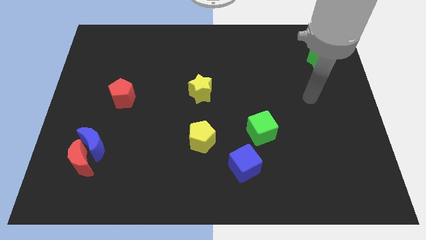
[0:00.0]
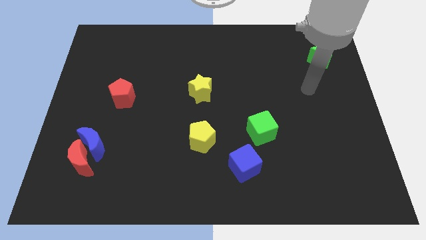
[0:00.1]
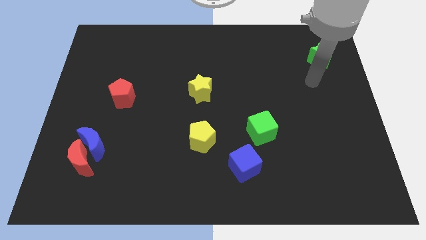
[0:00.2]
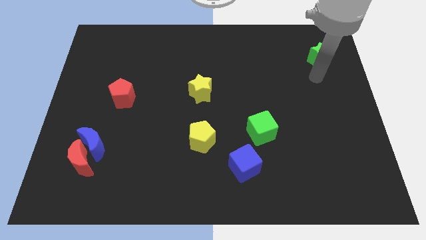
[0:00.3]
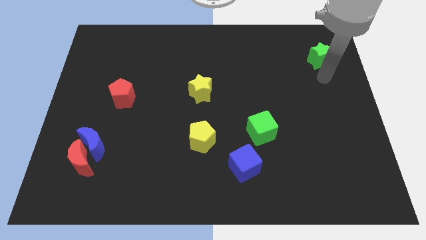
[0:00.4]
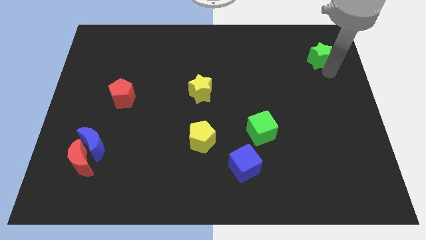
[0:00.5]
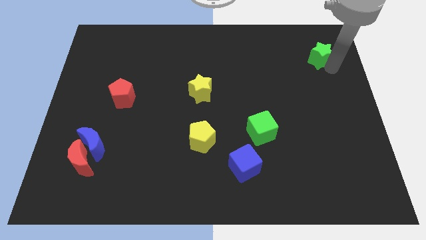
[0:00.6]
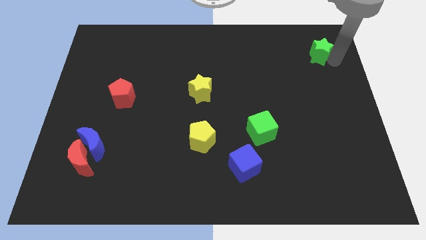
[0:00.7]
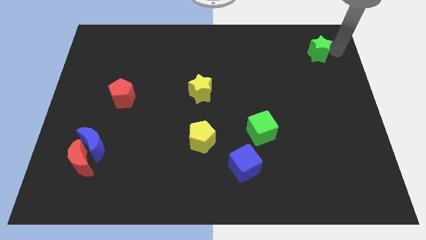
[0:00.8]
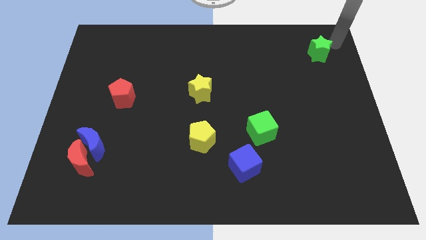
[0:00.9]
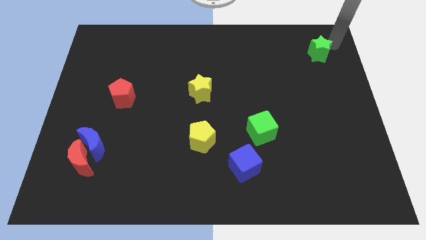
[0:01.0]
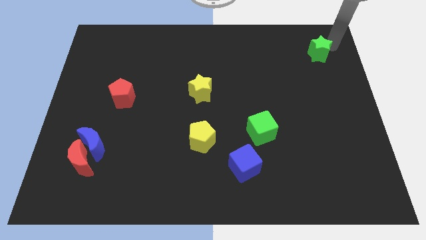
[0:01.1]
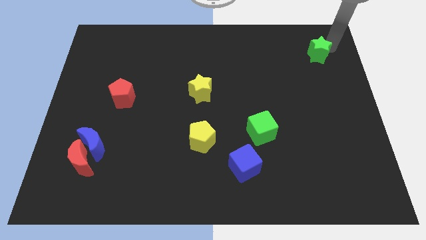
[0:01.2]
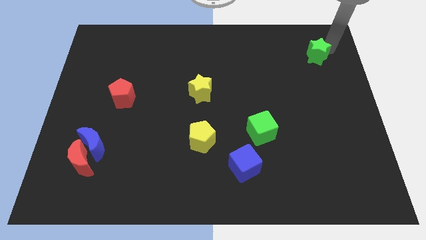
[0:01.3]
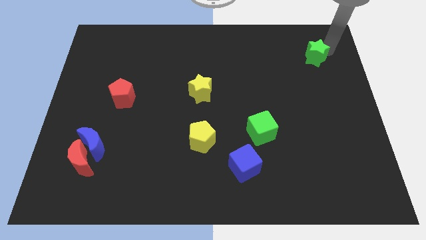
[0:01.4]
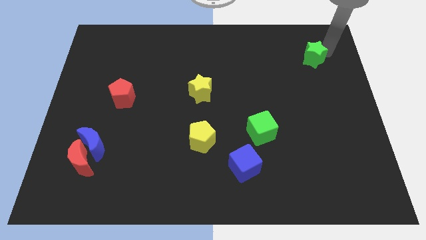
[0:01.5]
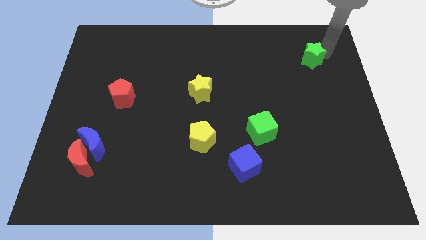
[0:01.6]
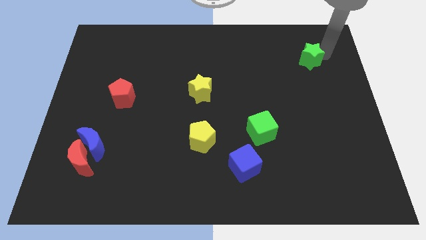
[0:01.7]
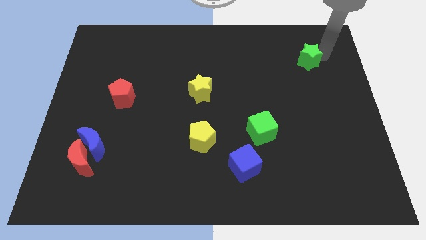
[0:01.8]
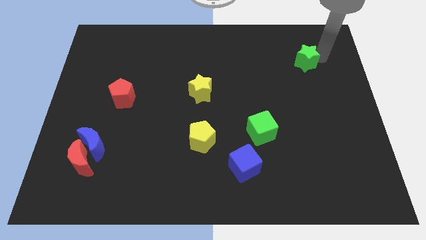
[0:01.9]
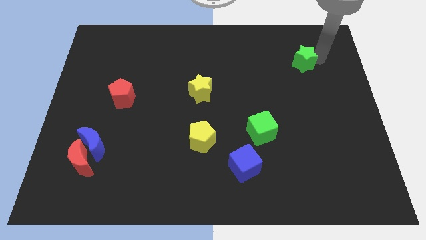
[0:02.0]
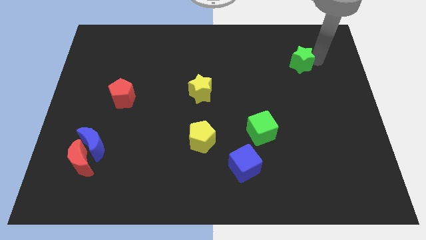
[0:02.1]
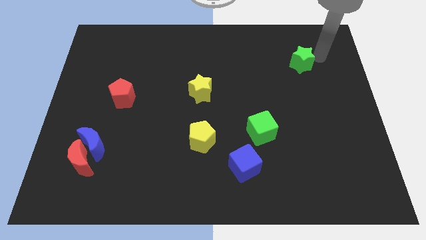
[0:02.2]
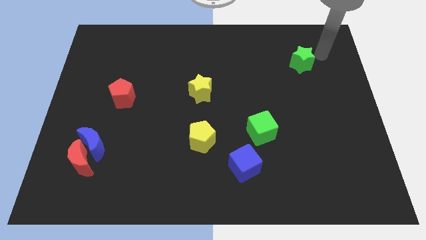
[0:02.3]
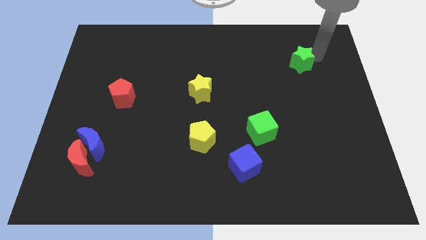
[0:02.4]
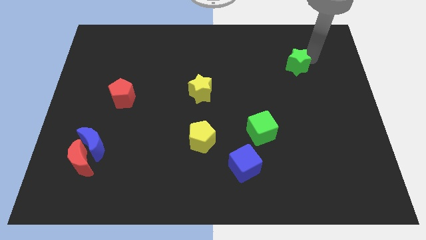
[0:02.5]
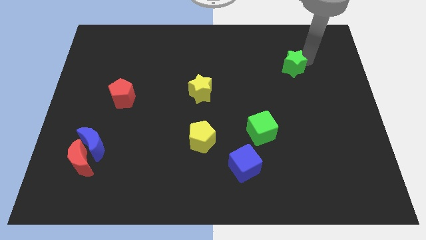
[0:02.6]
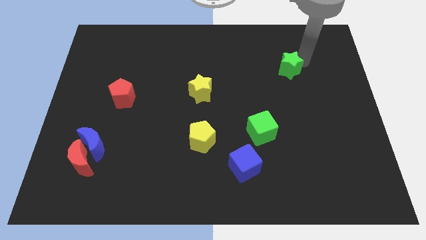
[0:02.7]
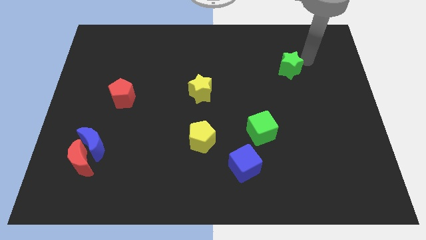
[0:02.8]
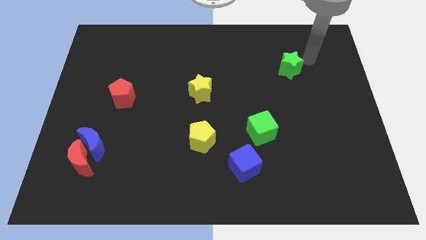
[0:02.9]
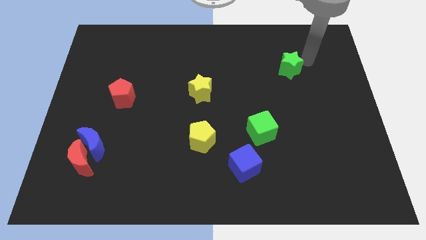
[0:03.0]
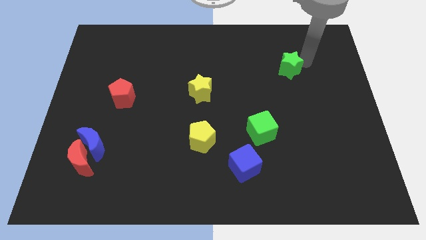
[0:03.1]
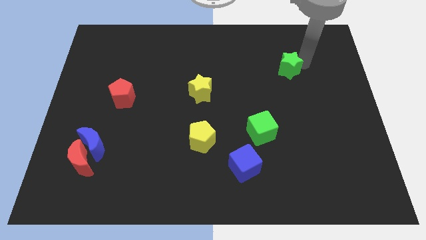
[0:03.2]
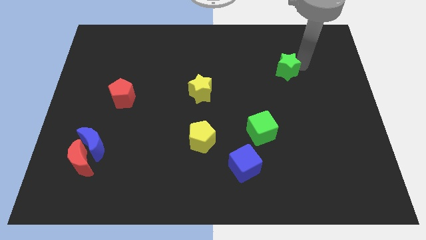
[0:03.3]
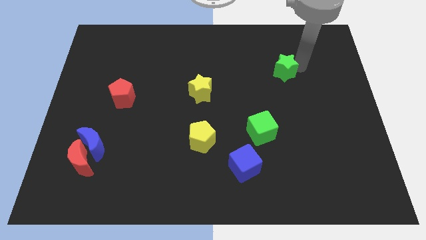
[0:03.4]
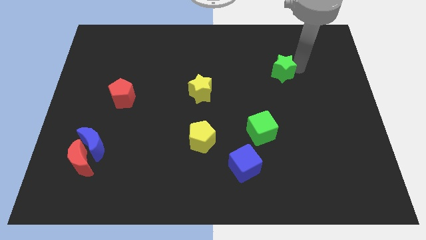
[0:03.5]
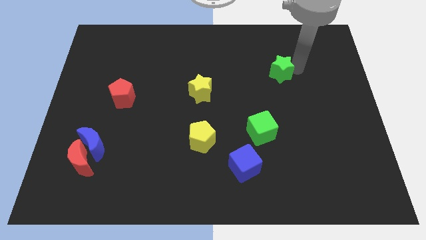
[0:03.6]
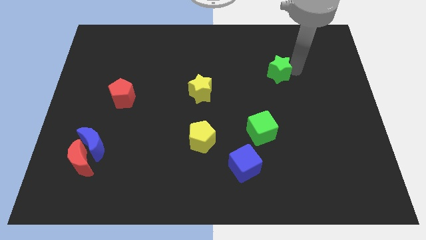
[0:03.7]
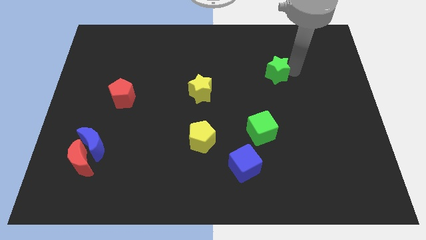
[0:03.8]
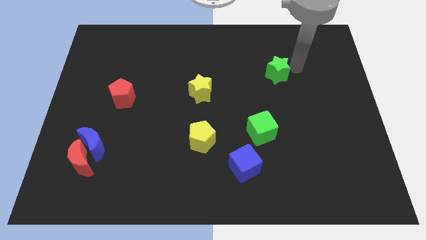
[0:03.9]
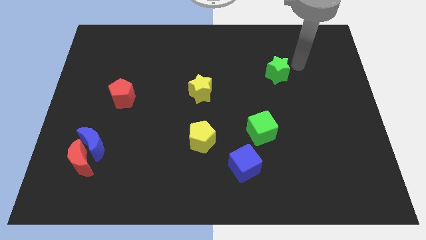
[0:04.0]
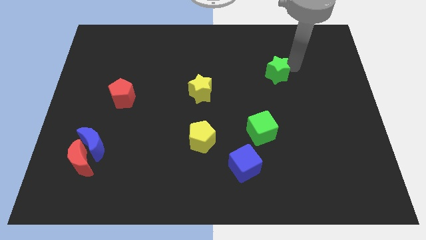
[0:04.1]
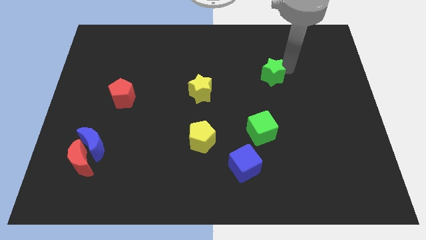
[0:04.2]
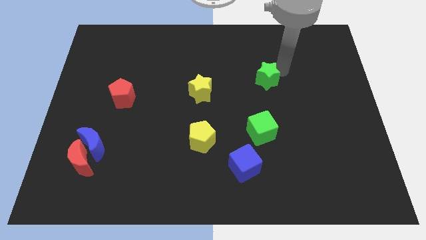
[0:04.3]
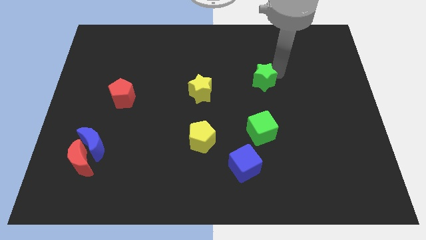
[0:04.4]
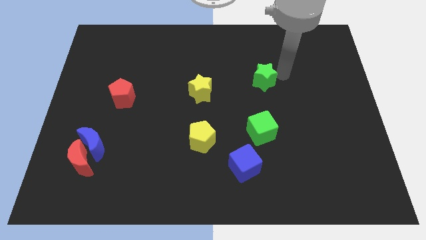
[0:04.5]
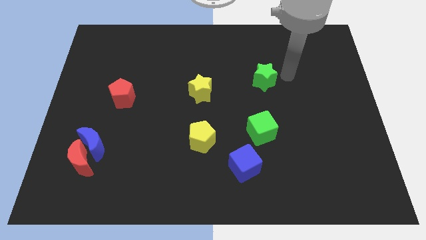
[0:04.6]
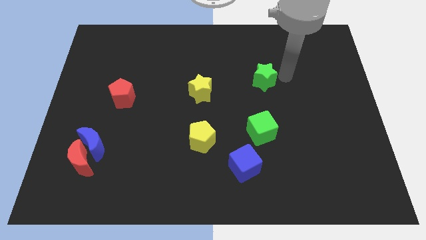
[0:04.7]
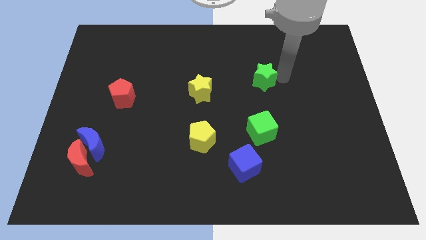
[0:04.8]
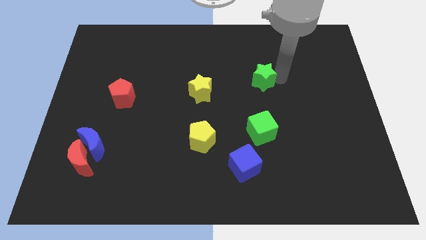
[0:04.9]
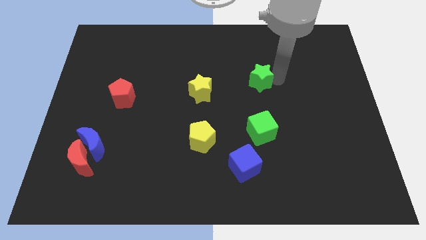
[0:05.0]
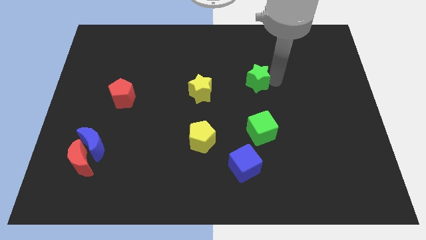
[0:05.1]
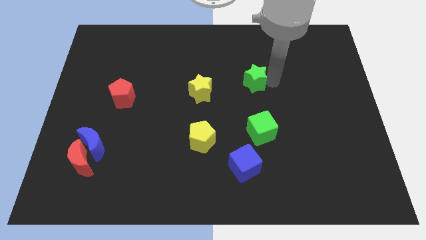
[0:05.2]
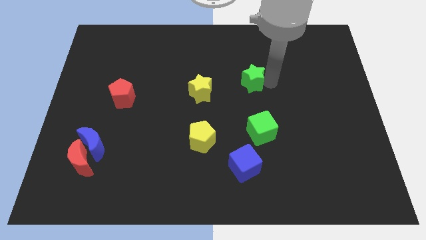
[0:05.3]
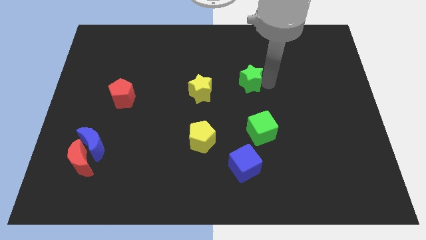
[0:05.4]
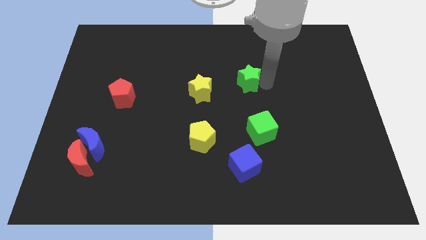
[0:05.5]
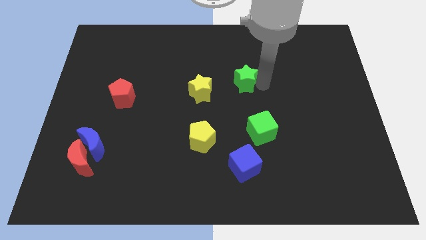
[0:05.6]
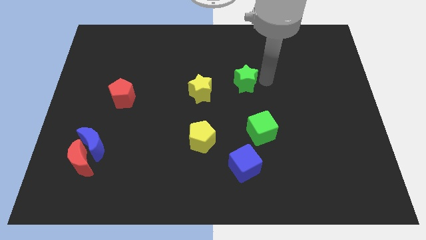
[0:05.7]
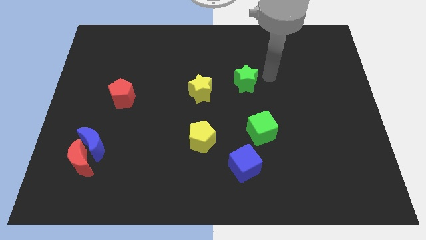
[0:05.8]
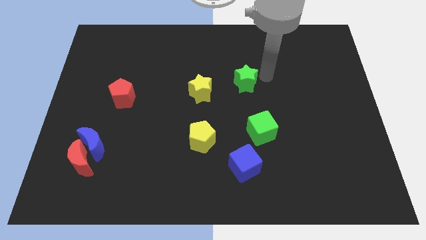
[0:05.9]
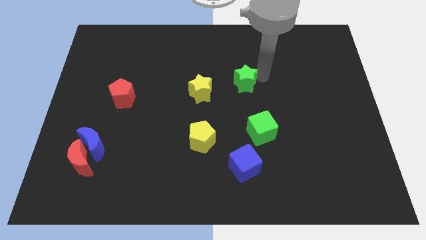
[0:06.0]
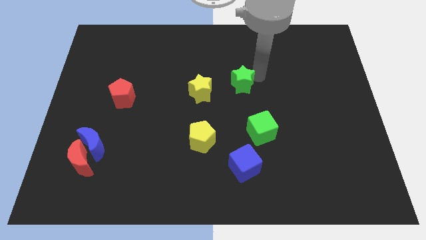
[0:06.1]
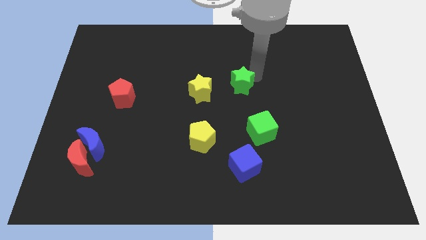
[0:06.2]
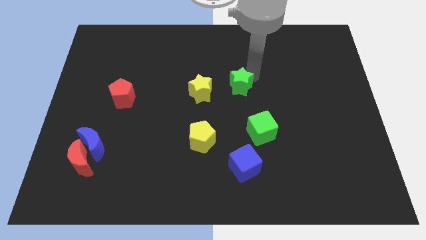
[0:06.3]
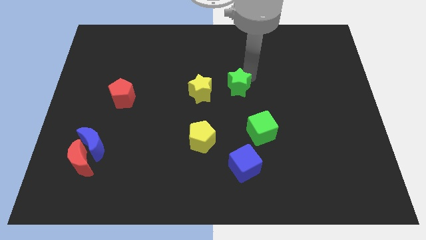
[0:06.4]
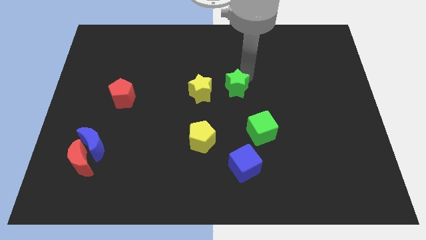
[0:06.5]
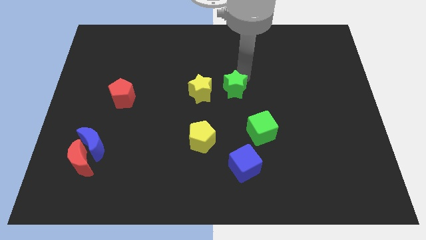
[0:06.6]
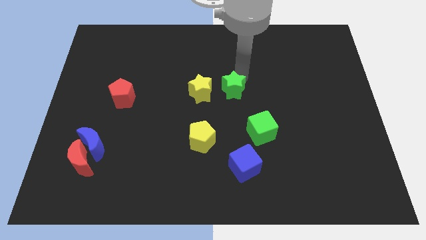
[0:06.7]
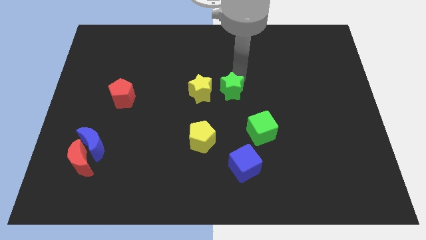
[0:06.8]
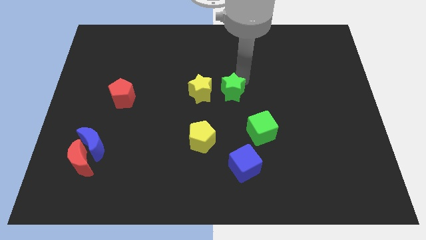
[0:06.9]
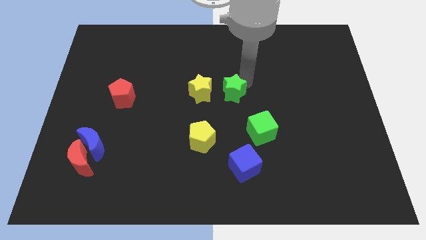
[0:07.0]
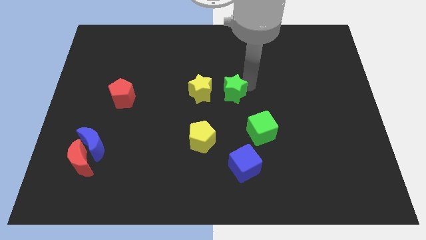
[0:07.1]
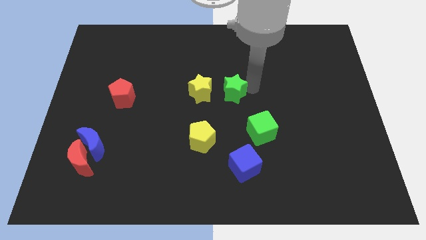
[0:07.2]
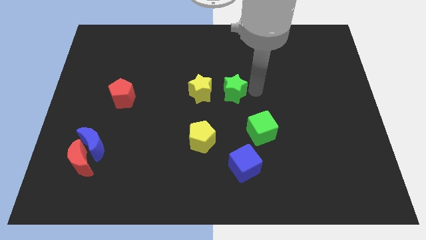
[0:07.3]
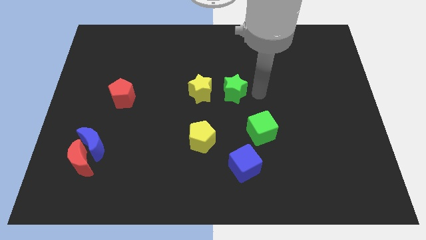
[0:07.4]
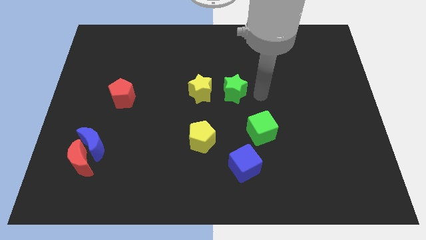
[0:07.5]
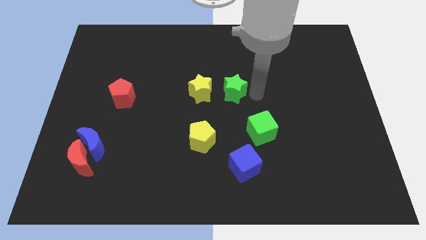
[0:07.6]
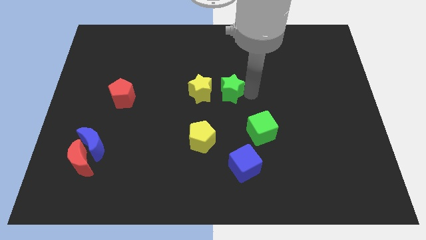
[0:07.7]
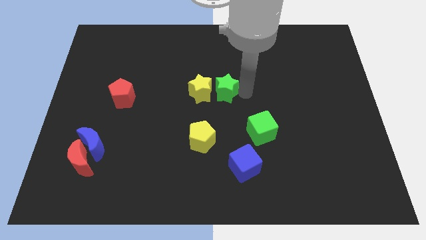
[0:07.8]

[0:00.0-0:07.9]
move the green star next to the yellow star
